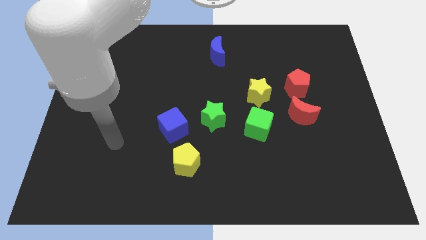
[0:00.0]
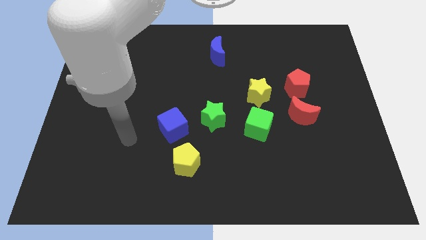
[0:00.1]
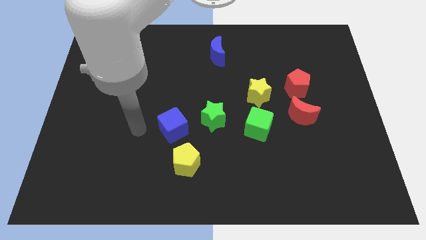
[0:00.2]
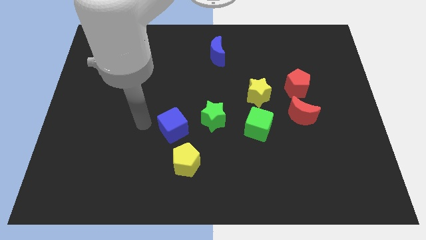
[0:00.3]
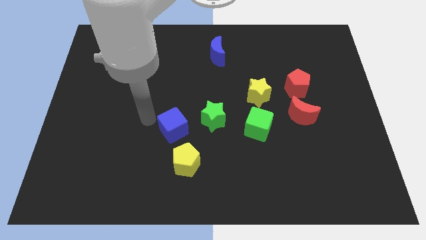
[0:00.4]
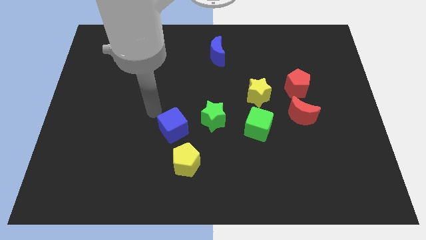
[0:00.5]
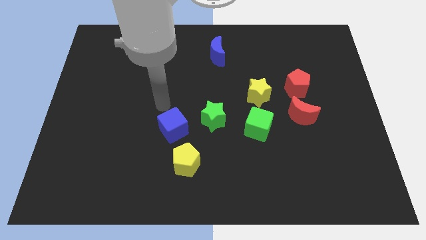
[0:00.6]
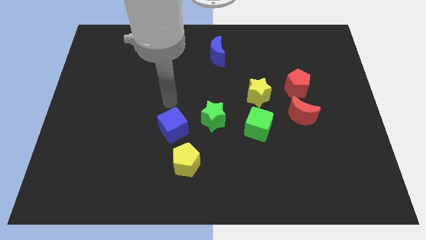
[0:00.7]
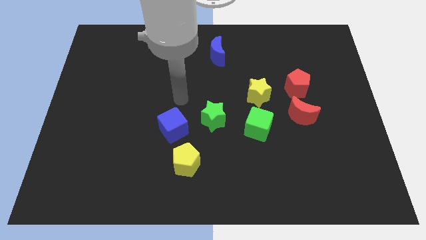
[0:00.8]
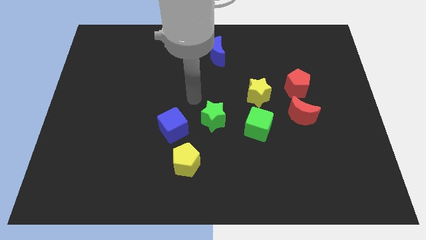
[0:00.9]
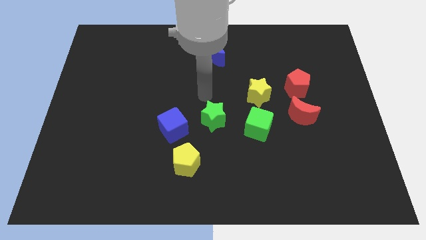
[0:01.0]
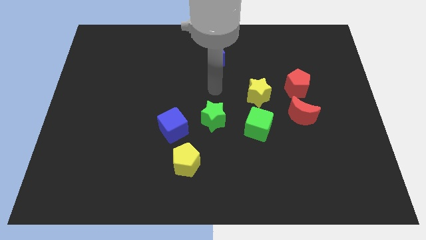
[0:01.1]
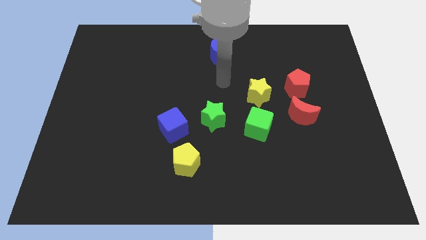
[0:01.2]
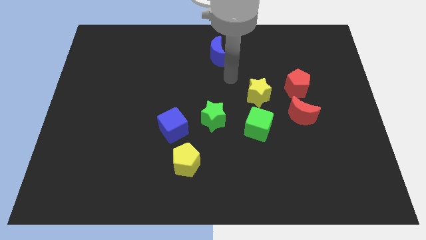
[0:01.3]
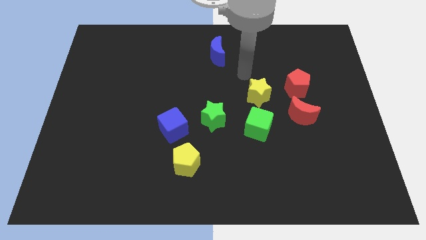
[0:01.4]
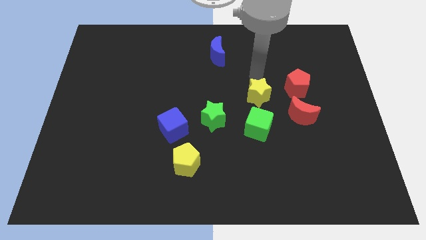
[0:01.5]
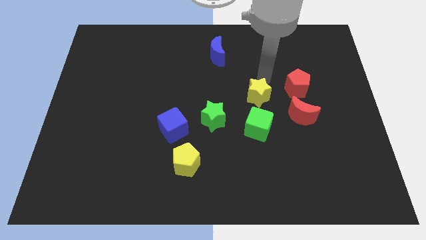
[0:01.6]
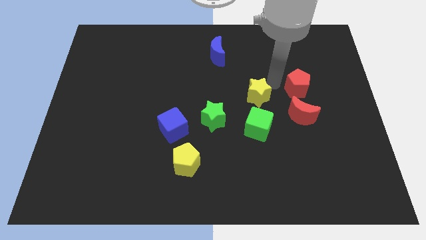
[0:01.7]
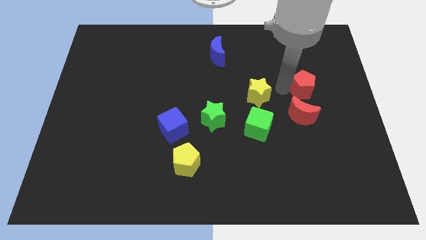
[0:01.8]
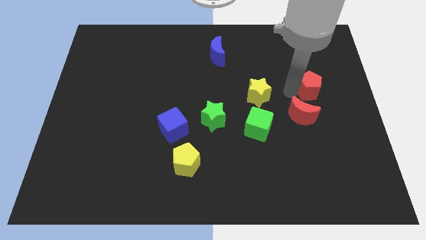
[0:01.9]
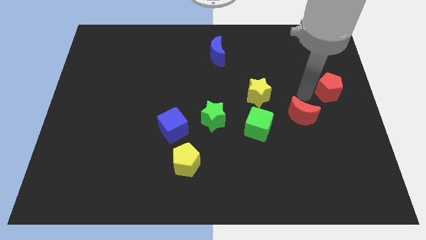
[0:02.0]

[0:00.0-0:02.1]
pull the red moon apart from the red pentagon

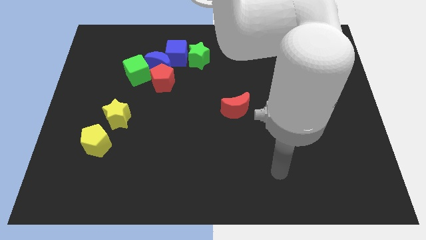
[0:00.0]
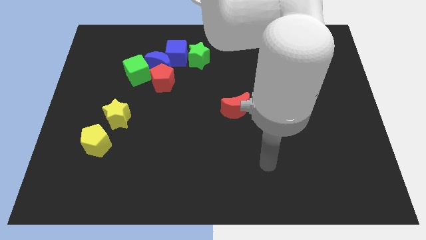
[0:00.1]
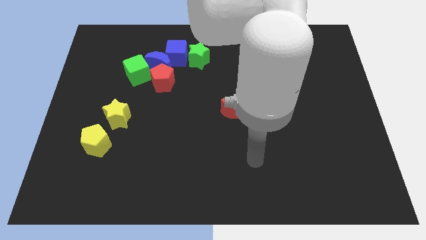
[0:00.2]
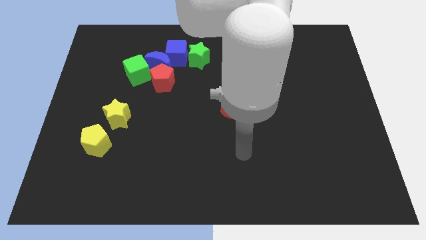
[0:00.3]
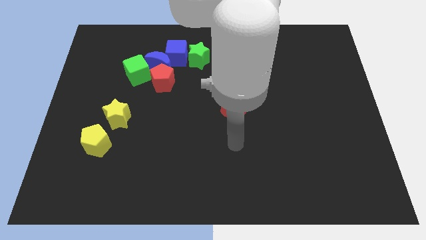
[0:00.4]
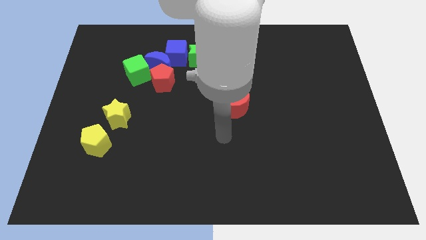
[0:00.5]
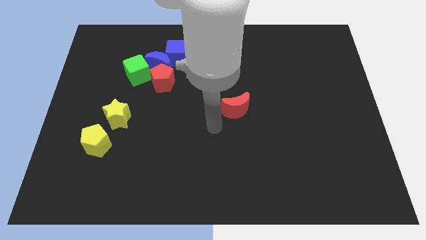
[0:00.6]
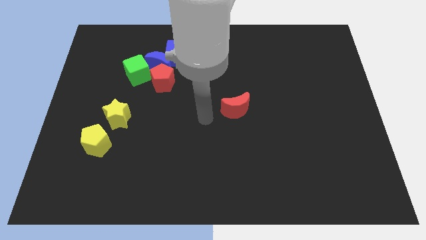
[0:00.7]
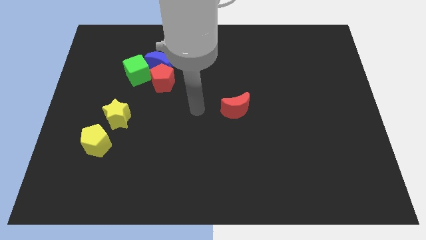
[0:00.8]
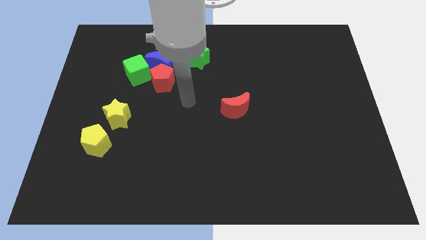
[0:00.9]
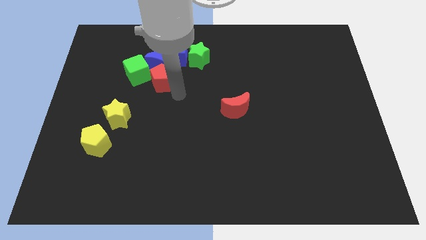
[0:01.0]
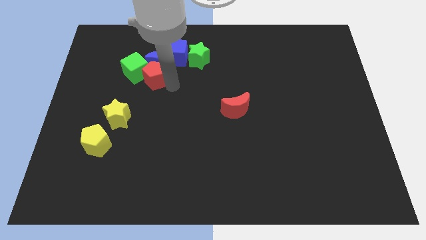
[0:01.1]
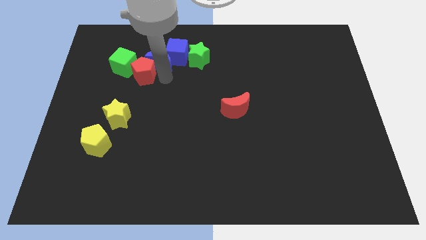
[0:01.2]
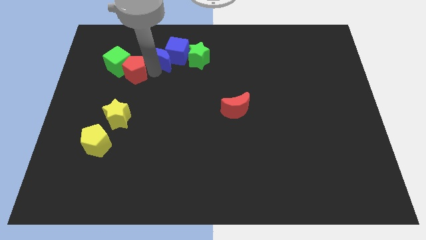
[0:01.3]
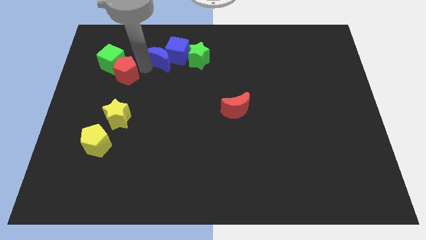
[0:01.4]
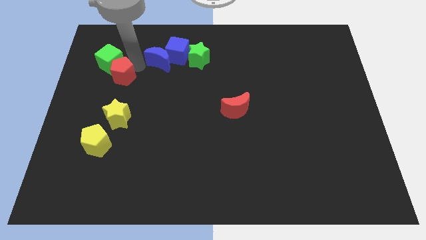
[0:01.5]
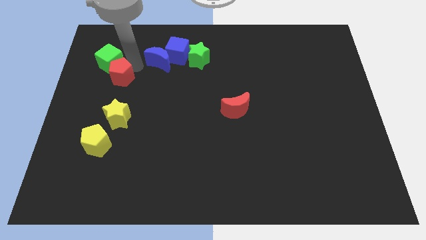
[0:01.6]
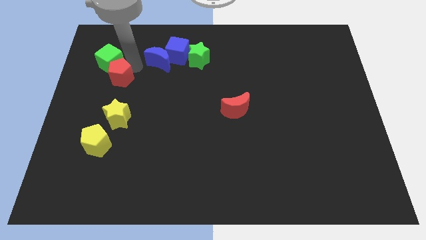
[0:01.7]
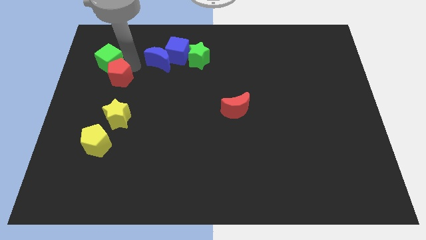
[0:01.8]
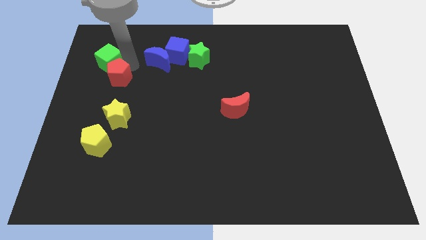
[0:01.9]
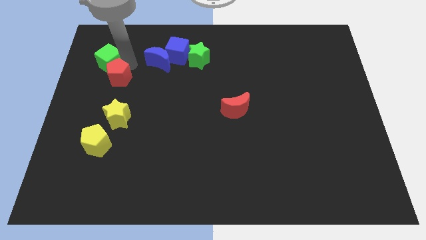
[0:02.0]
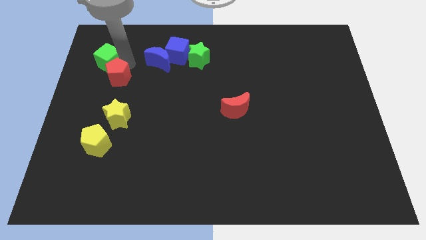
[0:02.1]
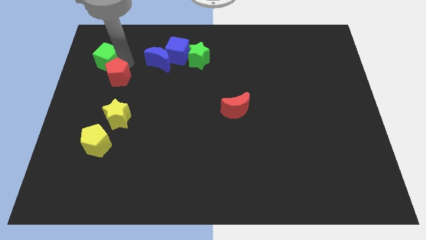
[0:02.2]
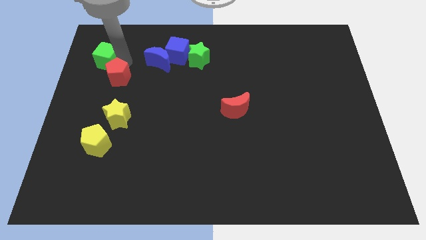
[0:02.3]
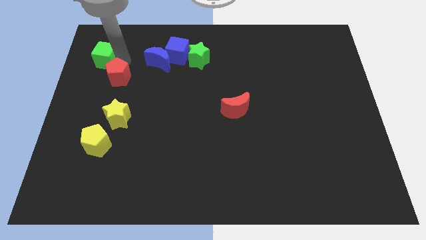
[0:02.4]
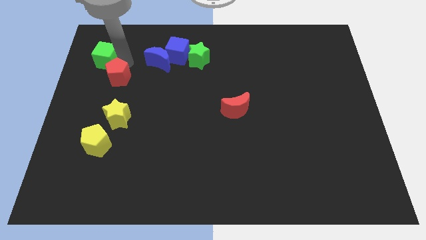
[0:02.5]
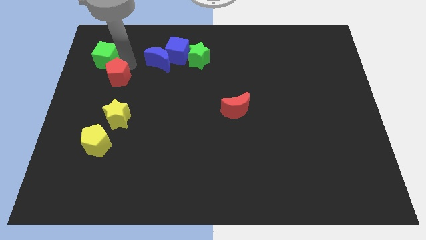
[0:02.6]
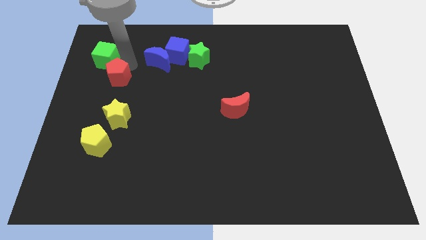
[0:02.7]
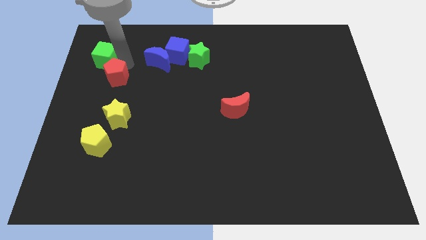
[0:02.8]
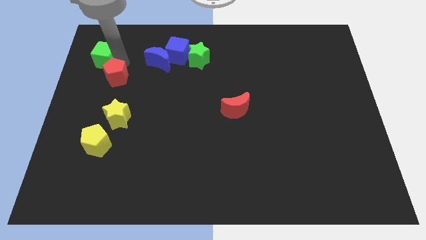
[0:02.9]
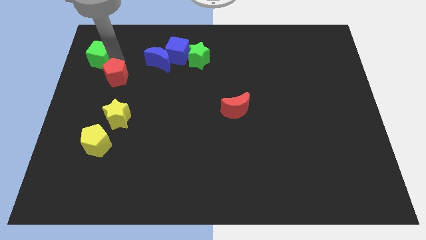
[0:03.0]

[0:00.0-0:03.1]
pull the green cube apart from the blue moon and red pentagon

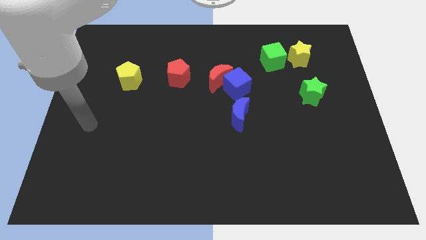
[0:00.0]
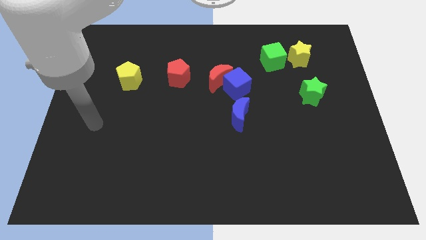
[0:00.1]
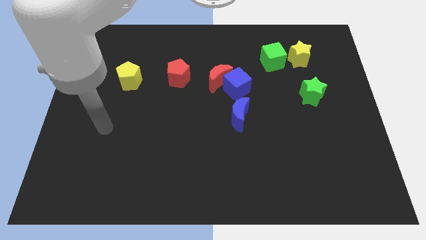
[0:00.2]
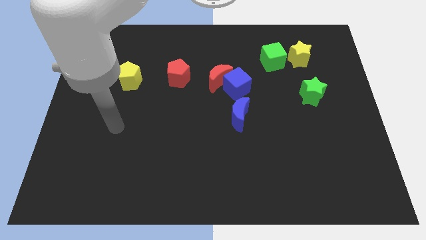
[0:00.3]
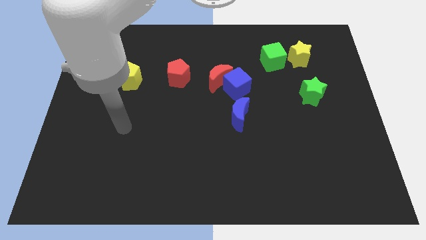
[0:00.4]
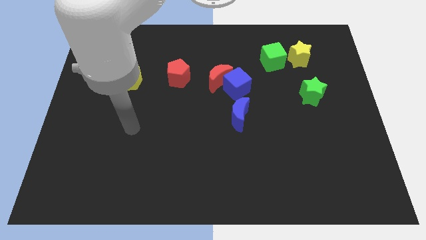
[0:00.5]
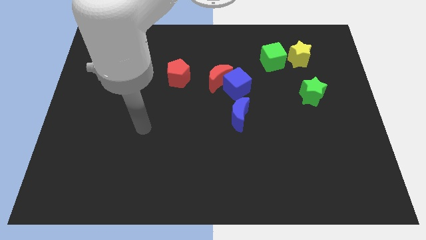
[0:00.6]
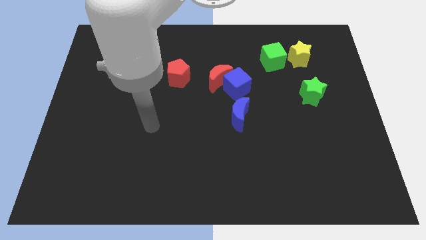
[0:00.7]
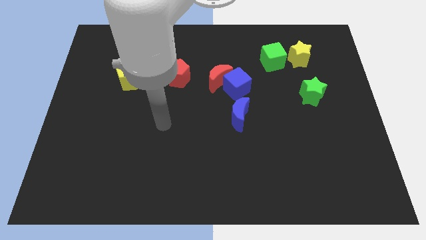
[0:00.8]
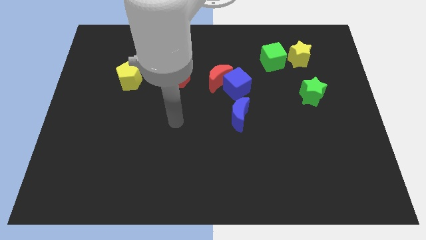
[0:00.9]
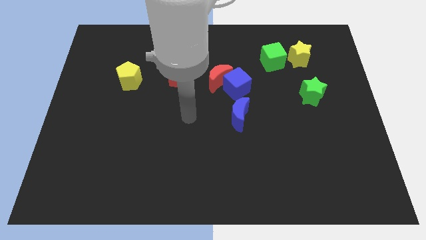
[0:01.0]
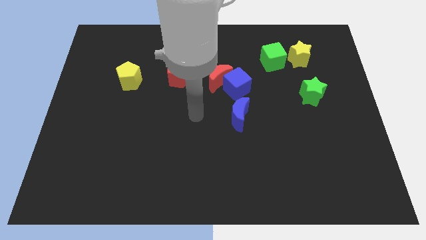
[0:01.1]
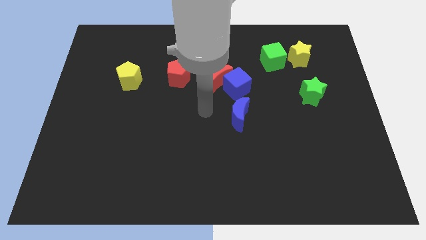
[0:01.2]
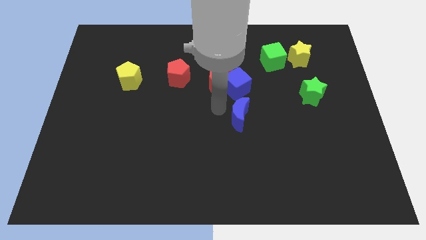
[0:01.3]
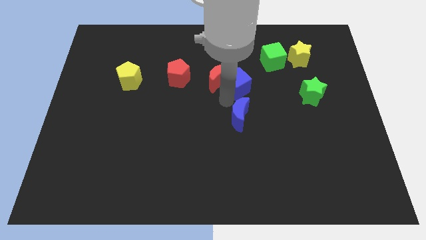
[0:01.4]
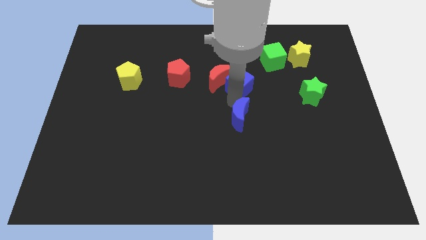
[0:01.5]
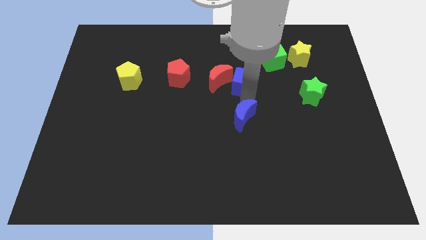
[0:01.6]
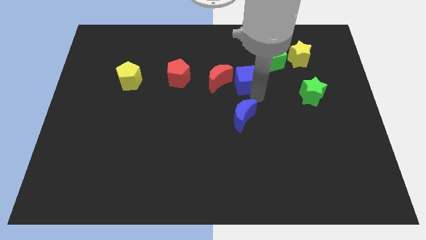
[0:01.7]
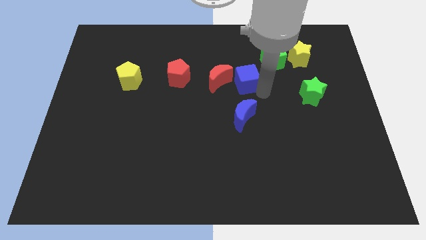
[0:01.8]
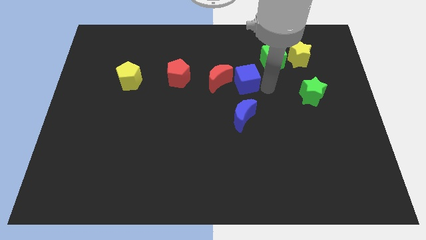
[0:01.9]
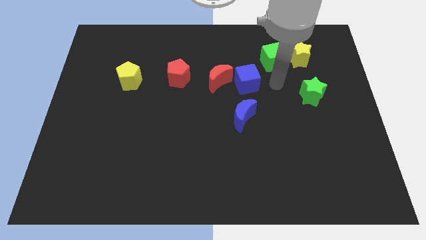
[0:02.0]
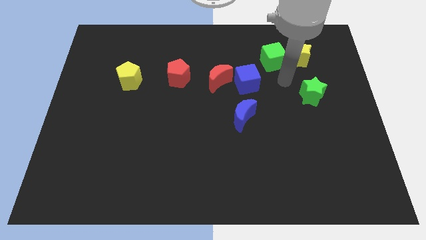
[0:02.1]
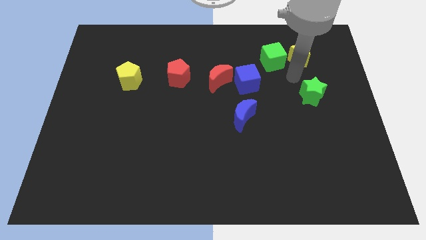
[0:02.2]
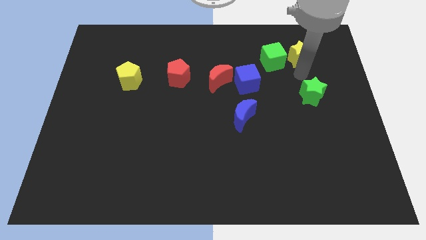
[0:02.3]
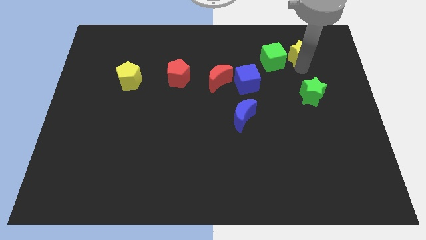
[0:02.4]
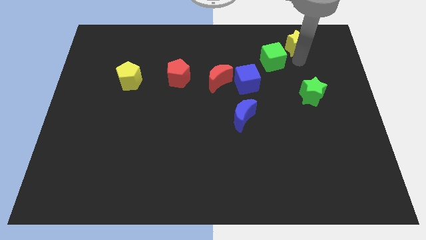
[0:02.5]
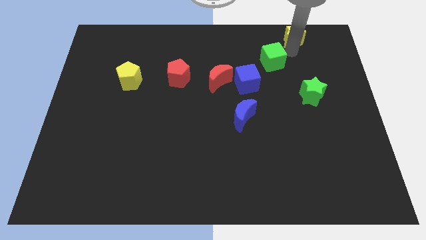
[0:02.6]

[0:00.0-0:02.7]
move the green cube away from the yellow star

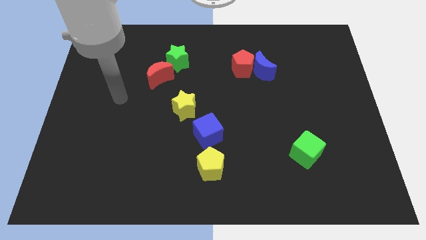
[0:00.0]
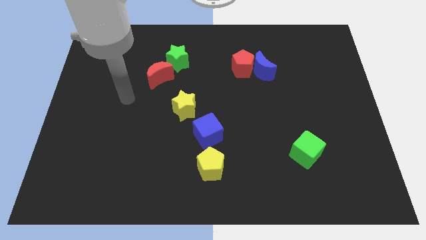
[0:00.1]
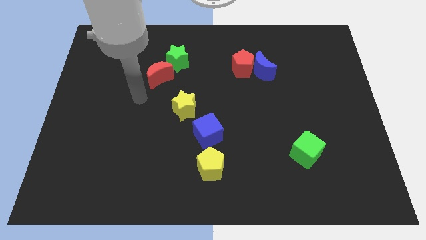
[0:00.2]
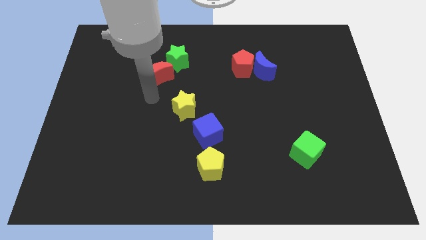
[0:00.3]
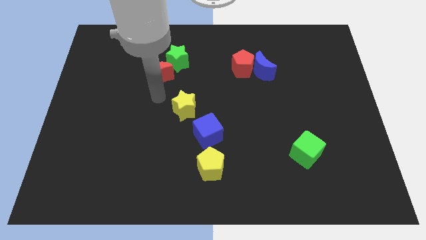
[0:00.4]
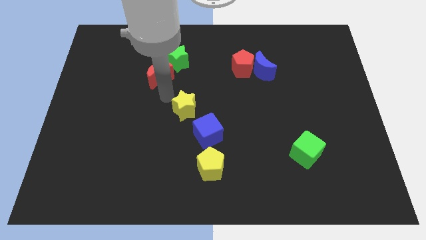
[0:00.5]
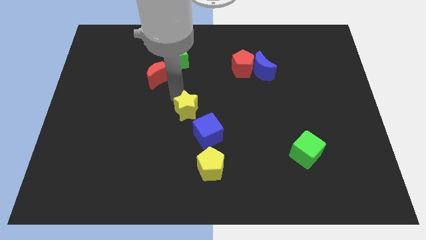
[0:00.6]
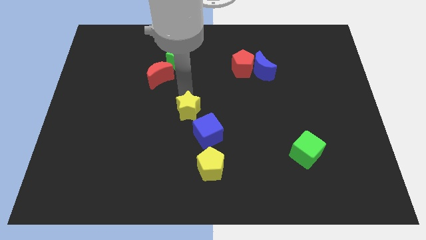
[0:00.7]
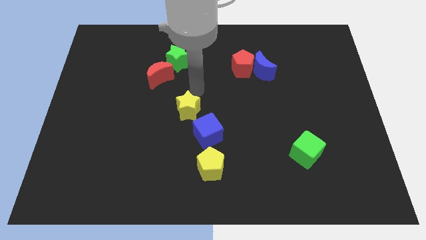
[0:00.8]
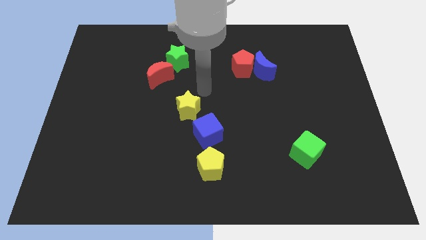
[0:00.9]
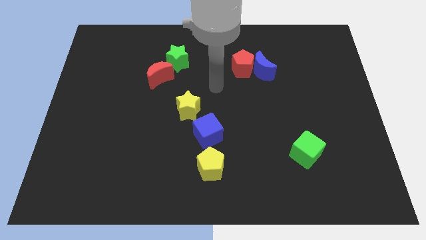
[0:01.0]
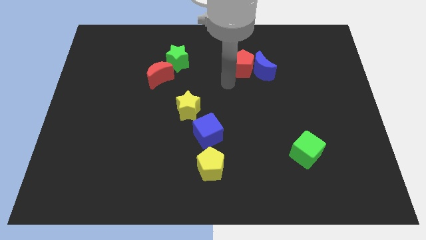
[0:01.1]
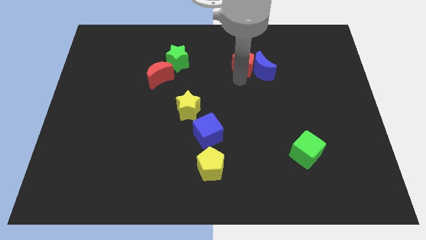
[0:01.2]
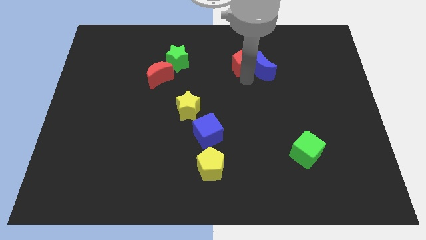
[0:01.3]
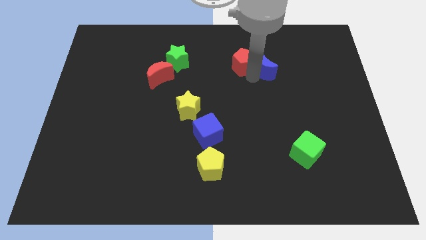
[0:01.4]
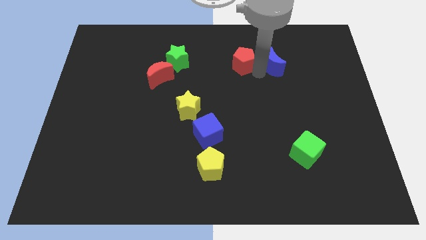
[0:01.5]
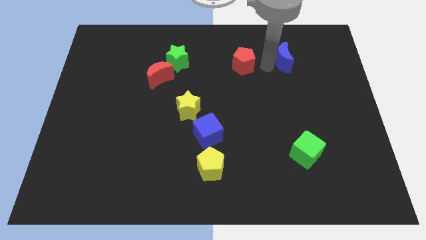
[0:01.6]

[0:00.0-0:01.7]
separate the red pentagon from the blue moon
